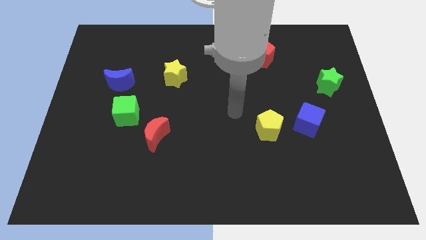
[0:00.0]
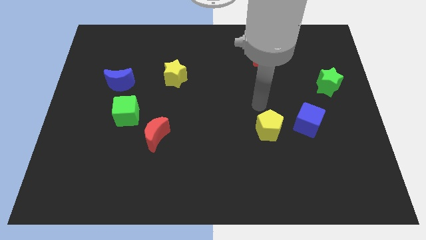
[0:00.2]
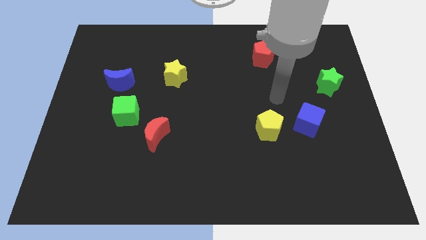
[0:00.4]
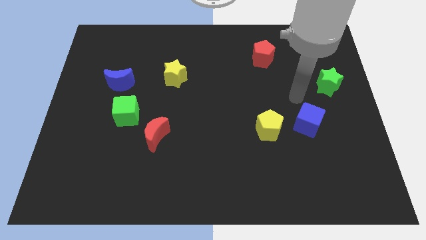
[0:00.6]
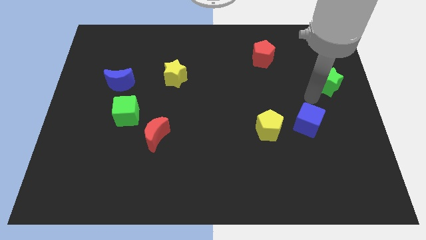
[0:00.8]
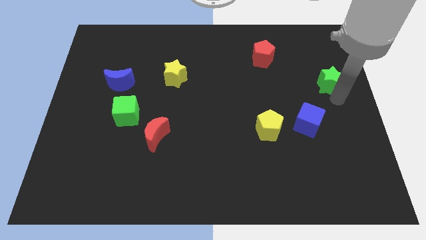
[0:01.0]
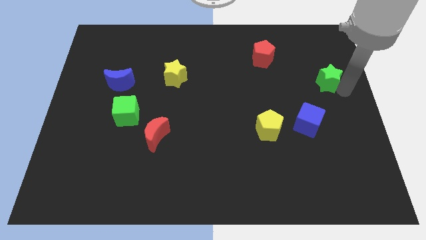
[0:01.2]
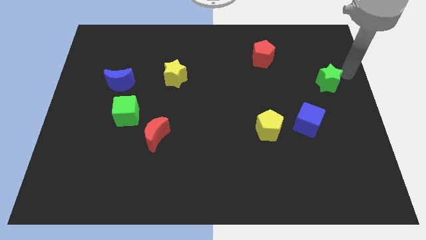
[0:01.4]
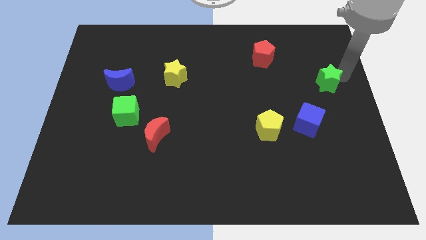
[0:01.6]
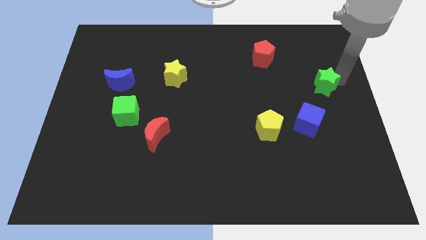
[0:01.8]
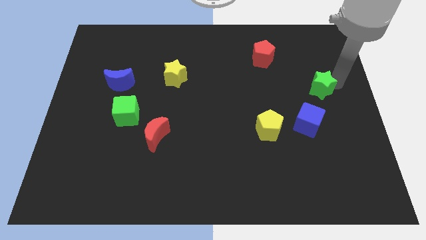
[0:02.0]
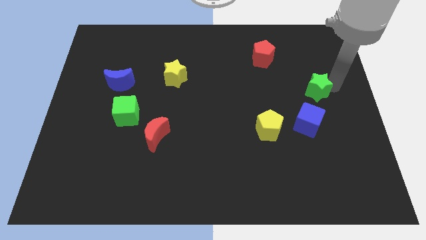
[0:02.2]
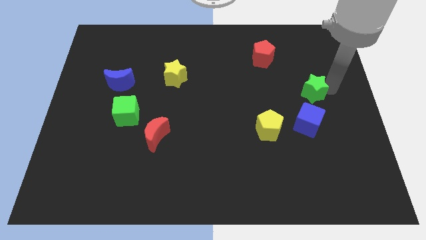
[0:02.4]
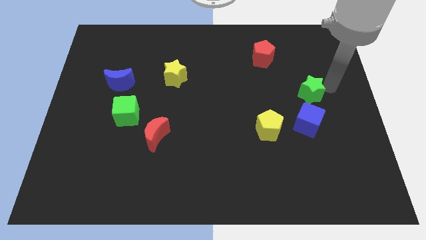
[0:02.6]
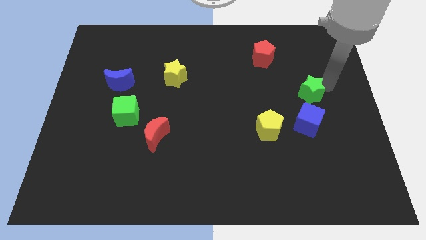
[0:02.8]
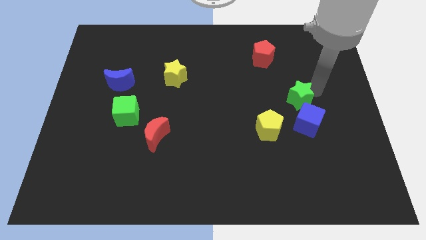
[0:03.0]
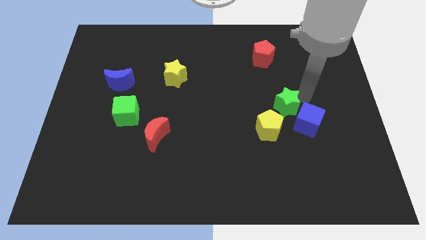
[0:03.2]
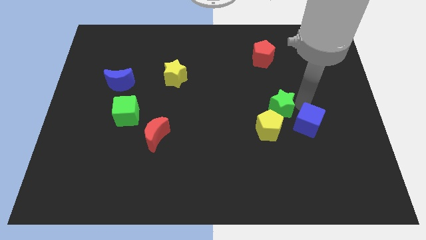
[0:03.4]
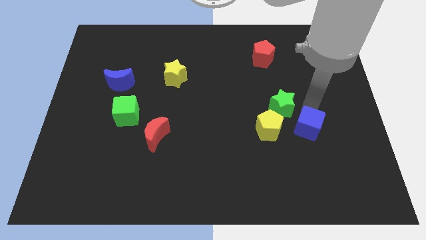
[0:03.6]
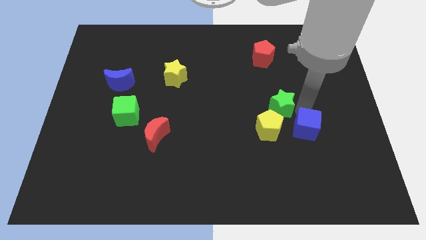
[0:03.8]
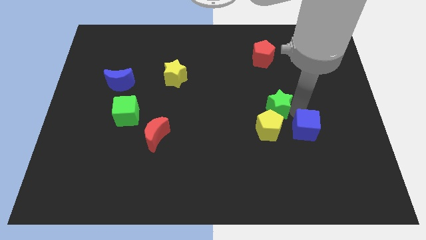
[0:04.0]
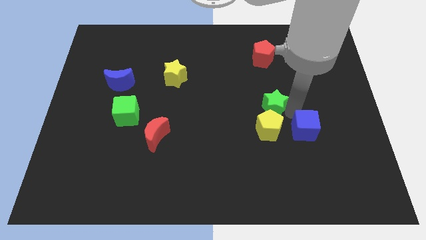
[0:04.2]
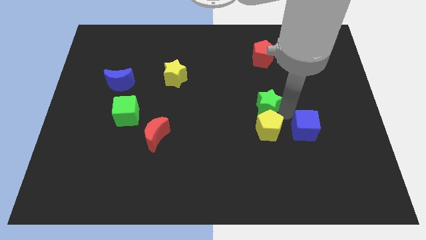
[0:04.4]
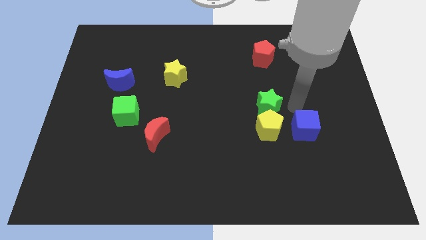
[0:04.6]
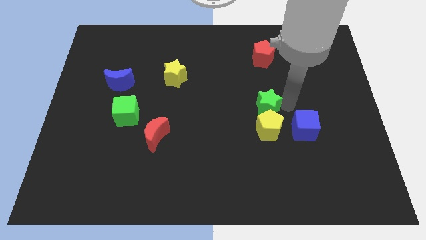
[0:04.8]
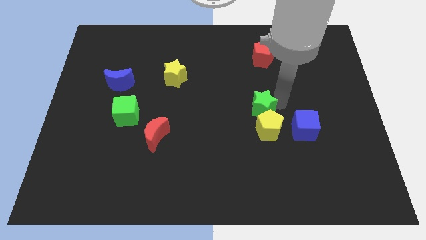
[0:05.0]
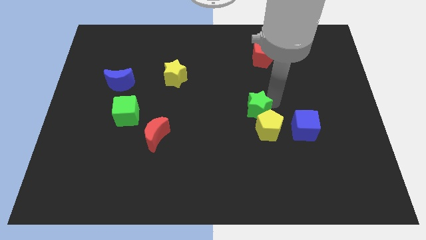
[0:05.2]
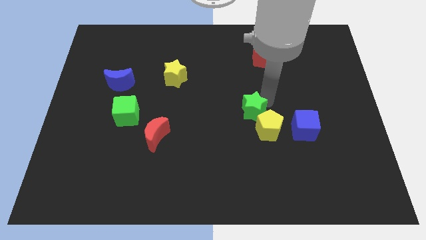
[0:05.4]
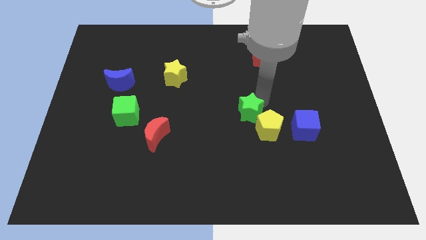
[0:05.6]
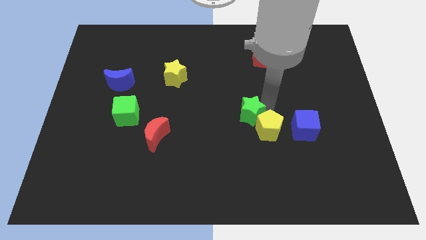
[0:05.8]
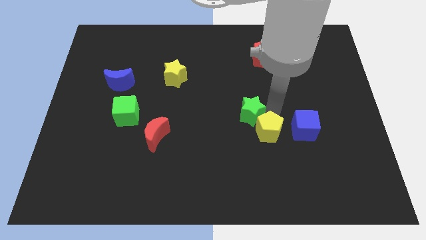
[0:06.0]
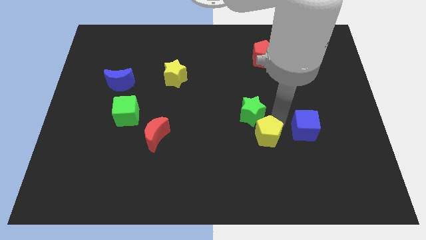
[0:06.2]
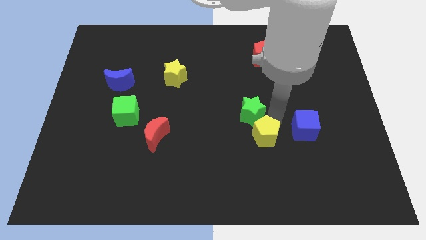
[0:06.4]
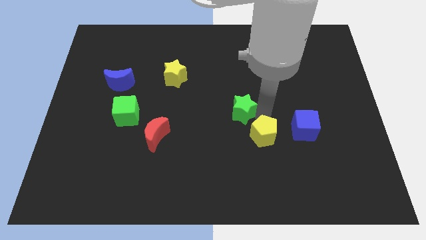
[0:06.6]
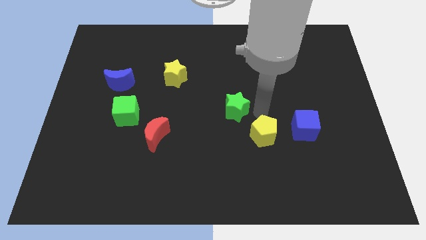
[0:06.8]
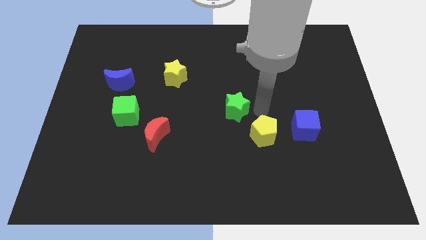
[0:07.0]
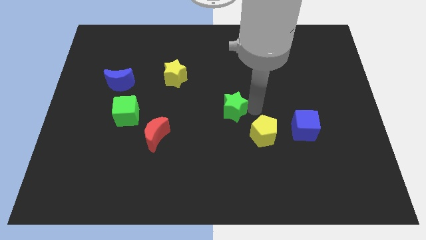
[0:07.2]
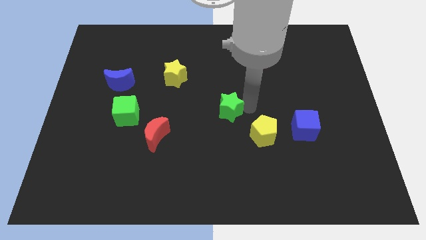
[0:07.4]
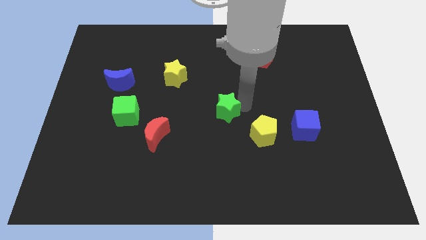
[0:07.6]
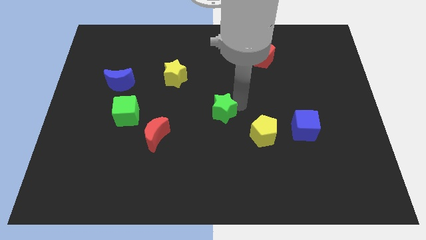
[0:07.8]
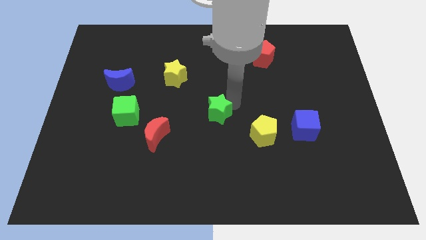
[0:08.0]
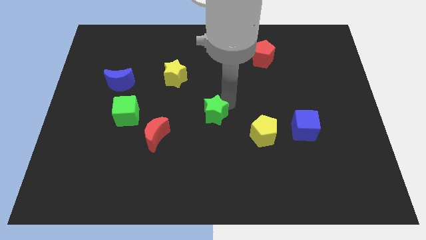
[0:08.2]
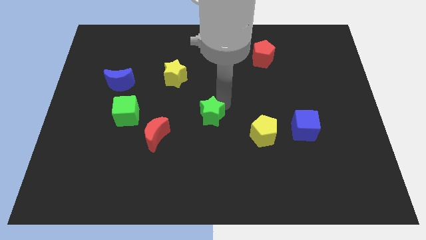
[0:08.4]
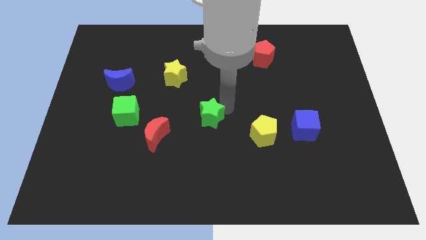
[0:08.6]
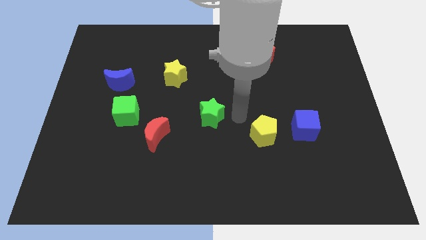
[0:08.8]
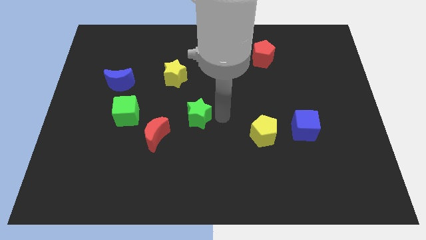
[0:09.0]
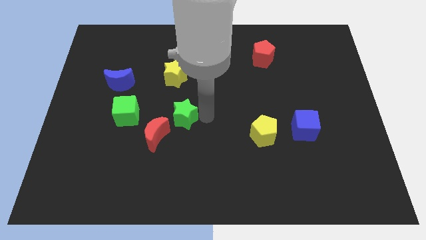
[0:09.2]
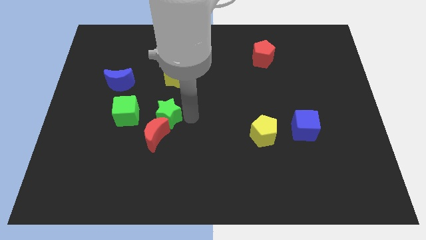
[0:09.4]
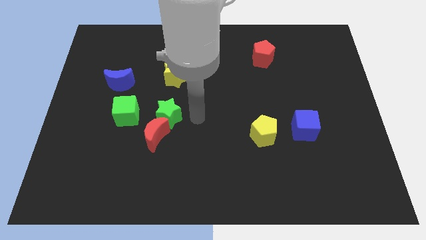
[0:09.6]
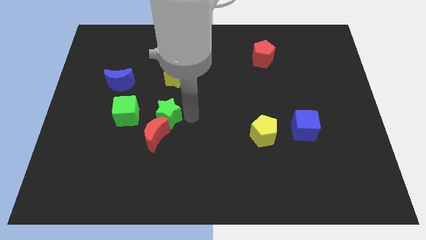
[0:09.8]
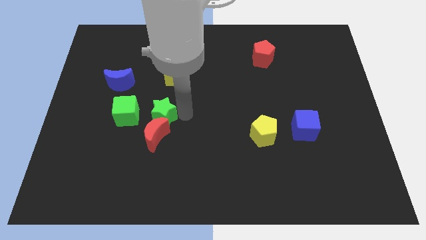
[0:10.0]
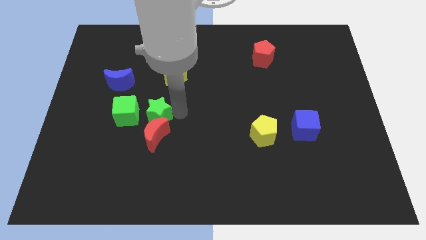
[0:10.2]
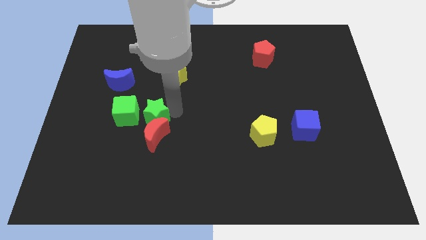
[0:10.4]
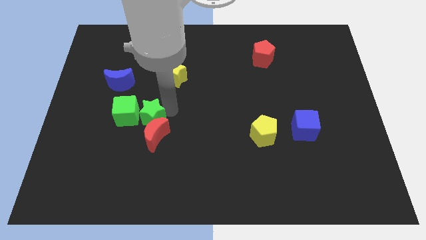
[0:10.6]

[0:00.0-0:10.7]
put the green star next to the green cube

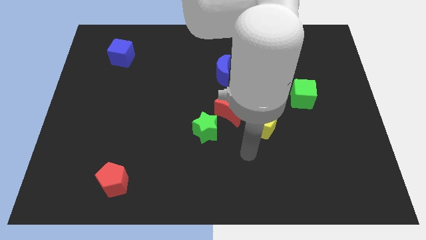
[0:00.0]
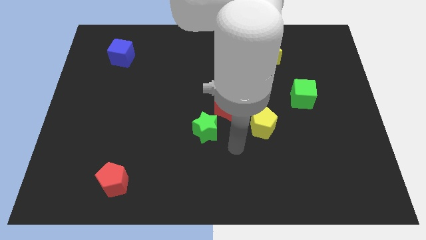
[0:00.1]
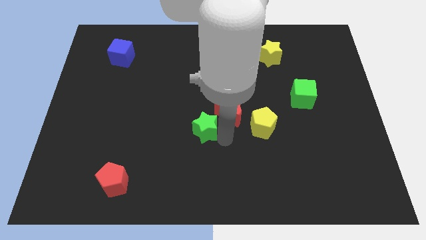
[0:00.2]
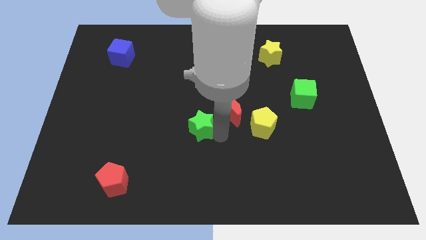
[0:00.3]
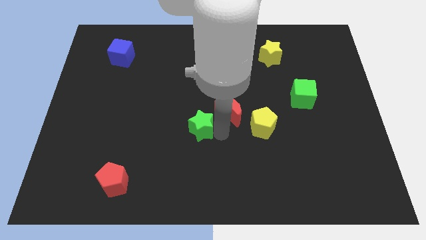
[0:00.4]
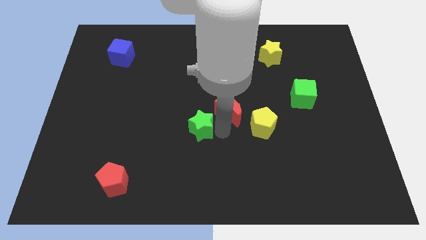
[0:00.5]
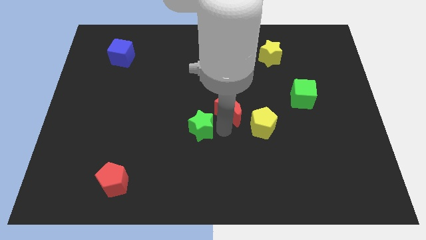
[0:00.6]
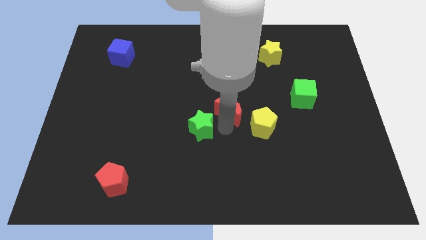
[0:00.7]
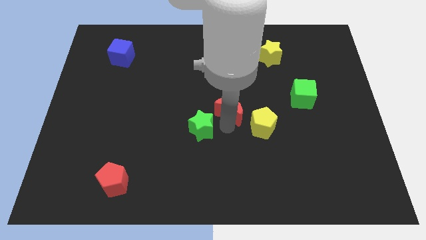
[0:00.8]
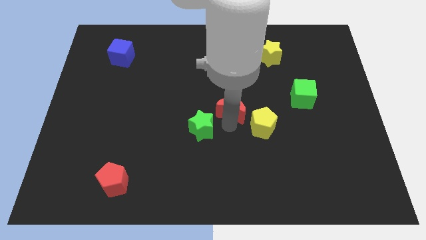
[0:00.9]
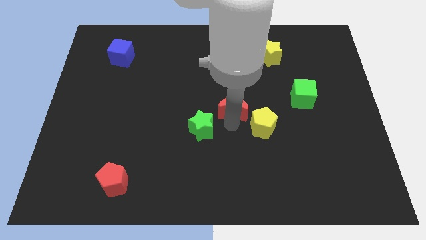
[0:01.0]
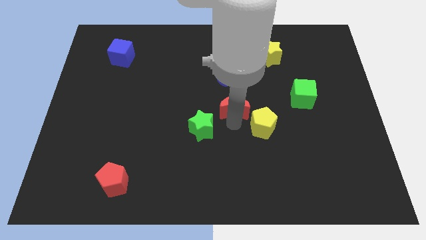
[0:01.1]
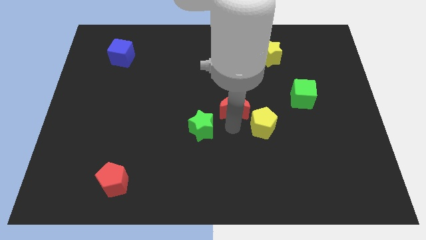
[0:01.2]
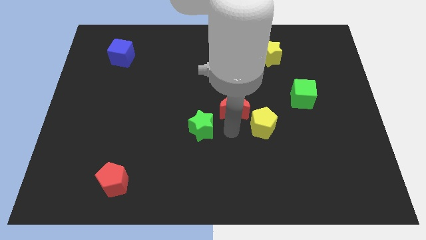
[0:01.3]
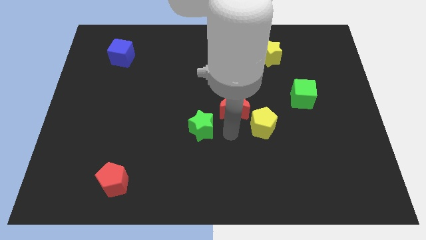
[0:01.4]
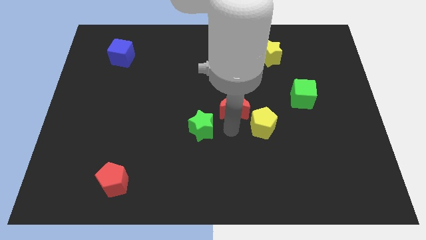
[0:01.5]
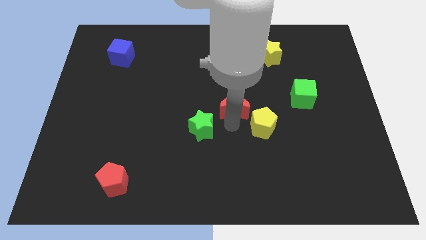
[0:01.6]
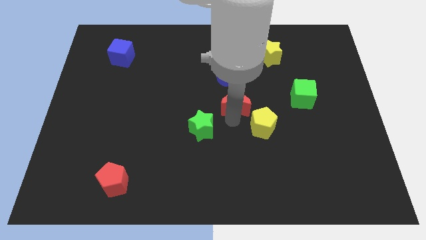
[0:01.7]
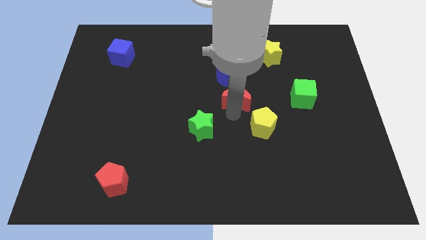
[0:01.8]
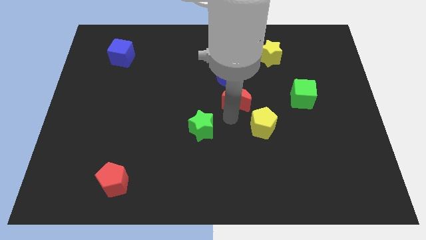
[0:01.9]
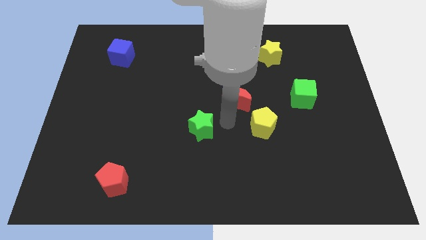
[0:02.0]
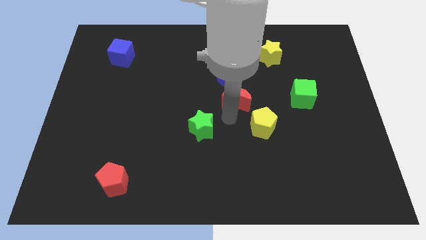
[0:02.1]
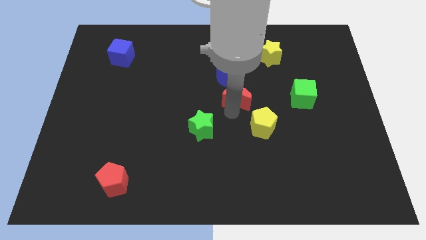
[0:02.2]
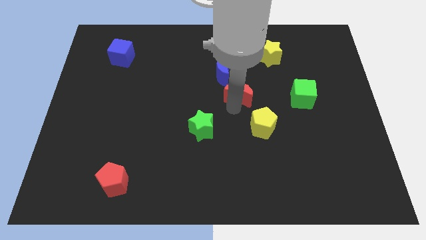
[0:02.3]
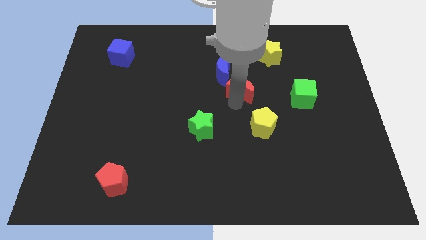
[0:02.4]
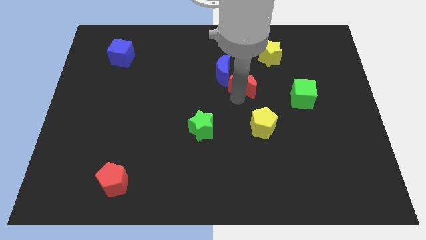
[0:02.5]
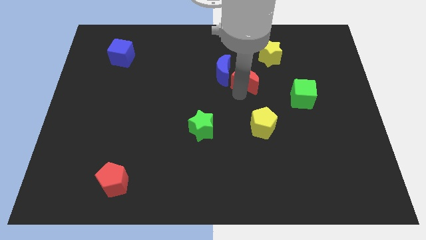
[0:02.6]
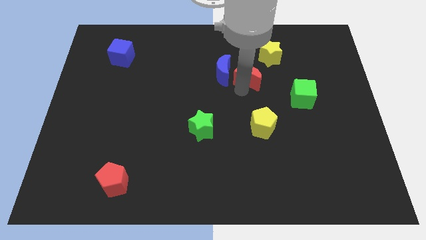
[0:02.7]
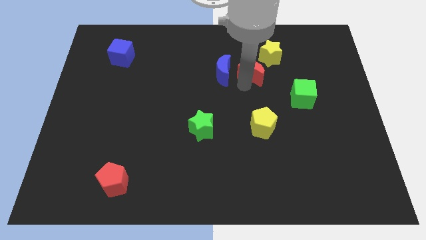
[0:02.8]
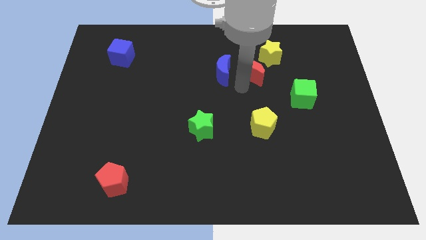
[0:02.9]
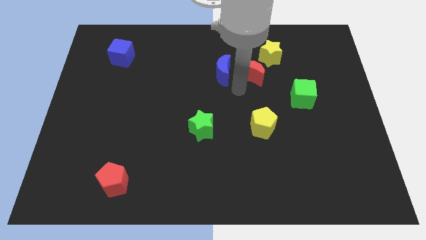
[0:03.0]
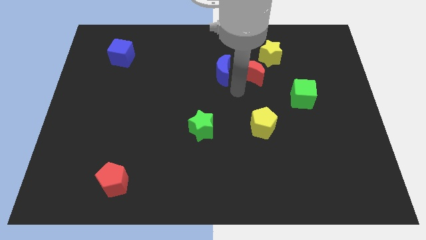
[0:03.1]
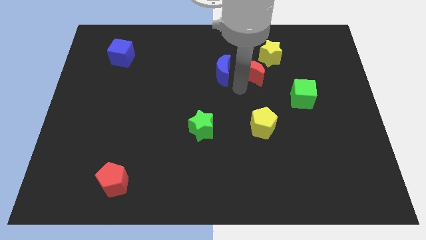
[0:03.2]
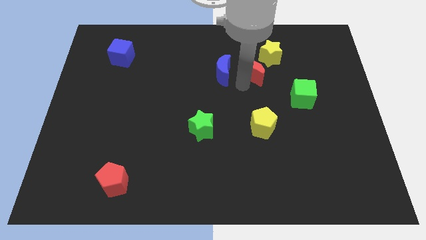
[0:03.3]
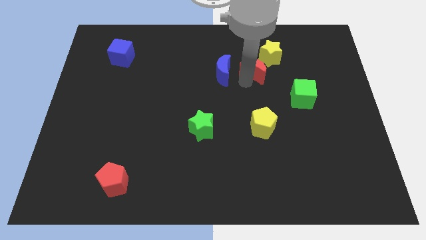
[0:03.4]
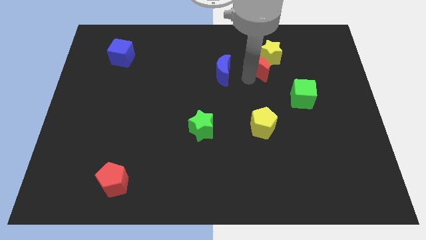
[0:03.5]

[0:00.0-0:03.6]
put the red moon to the yellow star
